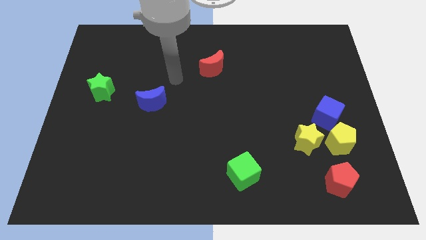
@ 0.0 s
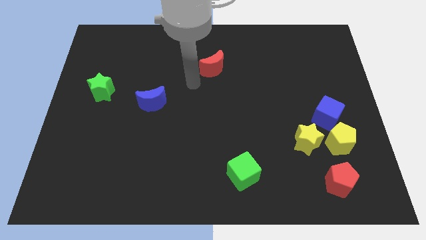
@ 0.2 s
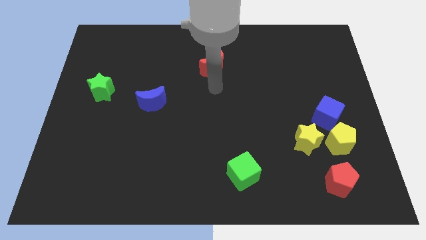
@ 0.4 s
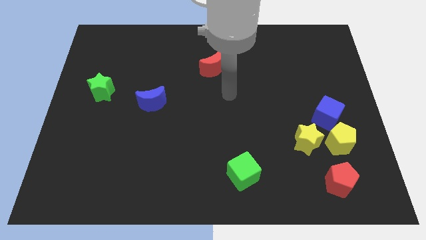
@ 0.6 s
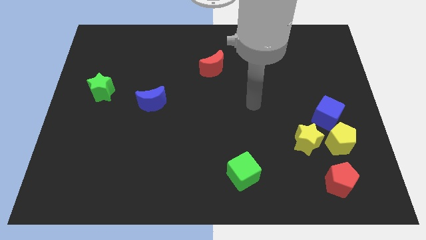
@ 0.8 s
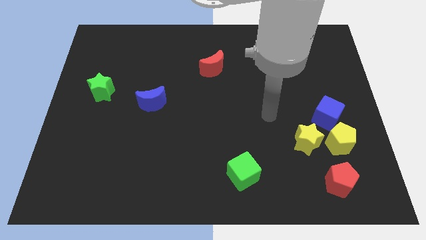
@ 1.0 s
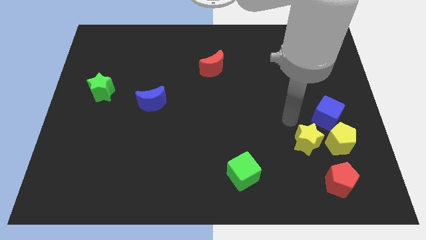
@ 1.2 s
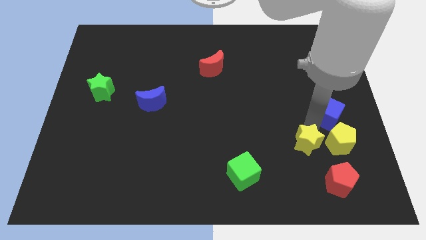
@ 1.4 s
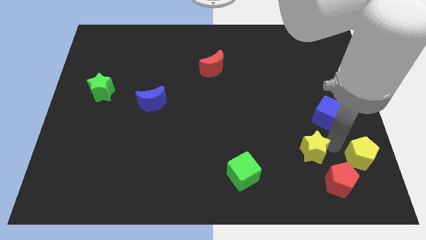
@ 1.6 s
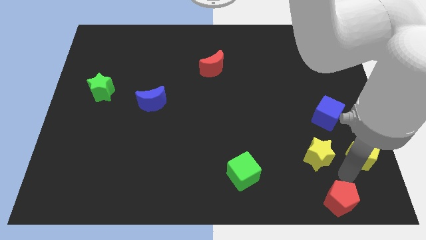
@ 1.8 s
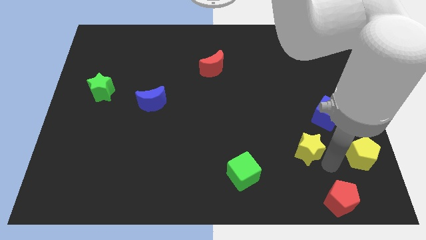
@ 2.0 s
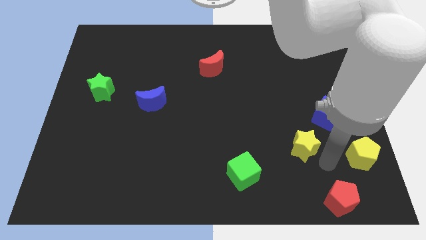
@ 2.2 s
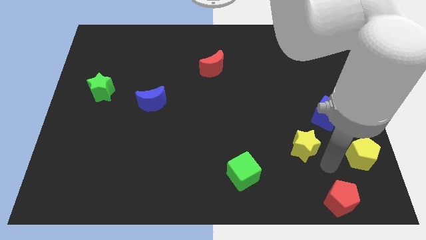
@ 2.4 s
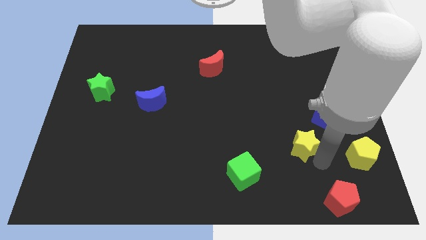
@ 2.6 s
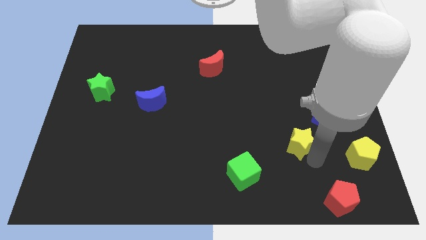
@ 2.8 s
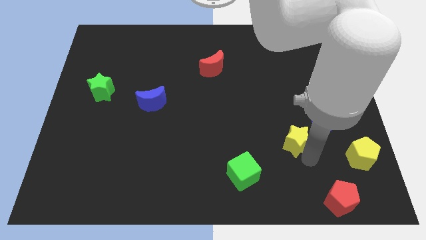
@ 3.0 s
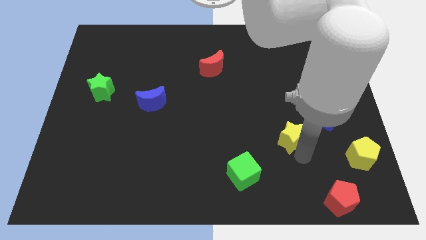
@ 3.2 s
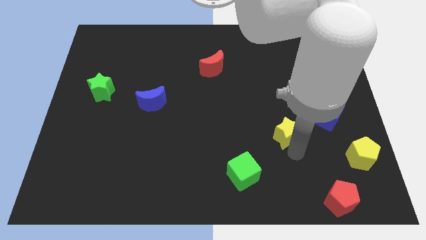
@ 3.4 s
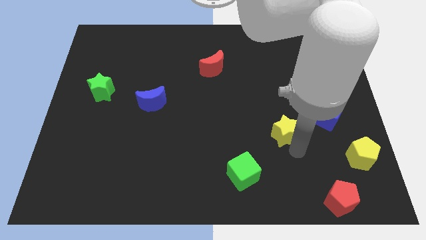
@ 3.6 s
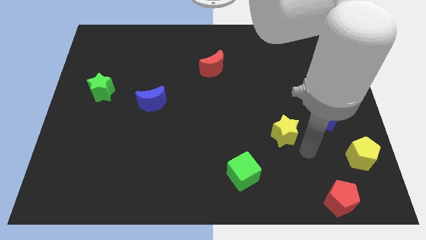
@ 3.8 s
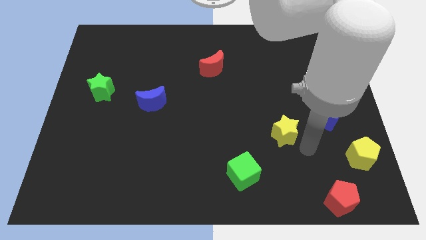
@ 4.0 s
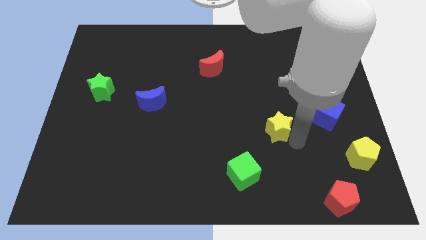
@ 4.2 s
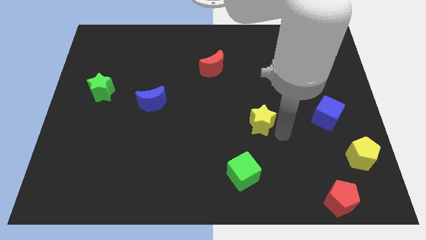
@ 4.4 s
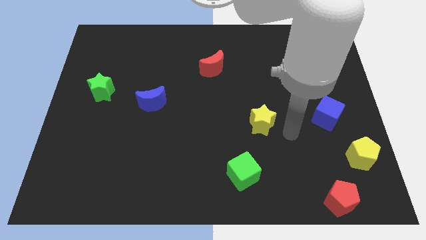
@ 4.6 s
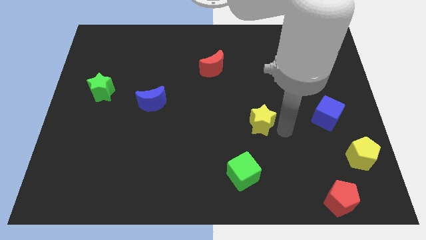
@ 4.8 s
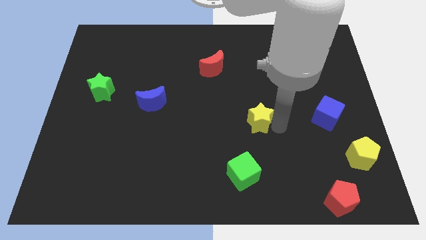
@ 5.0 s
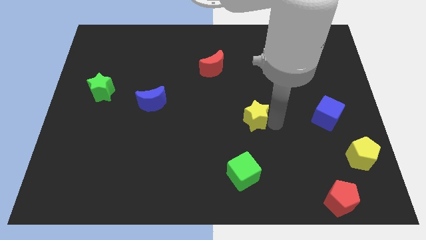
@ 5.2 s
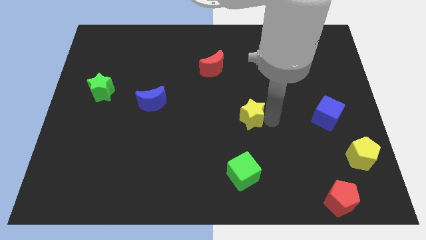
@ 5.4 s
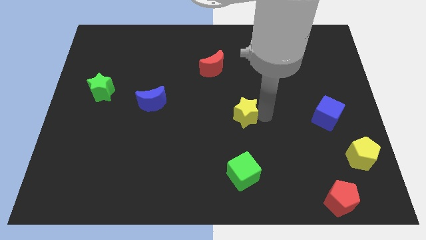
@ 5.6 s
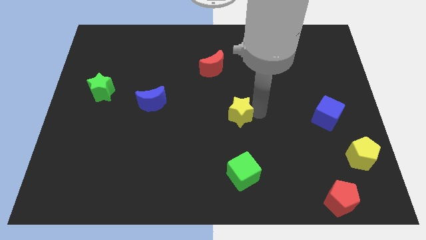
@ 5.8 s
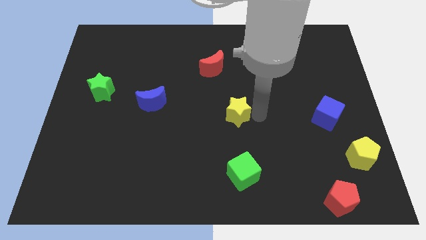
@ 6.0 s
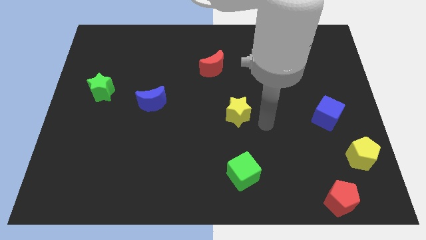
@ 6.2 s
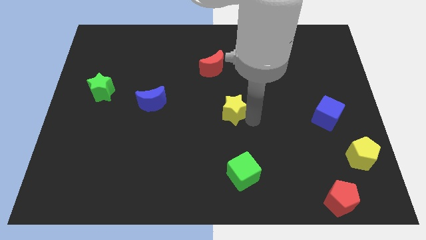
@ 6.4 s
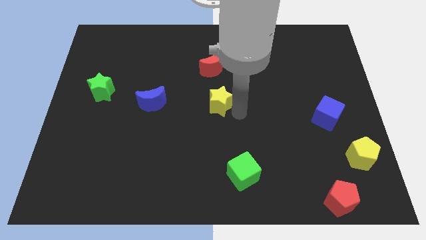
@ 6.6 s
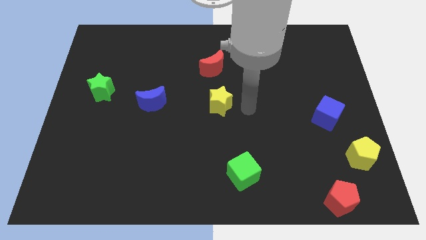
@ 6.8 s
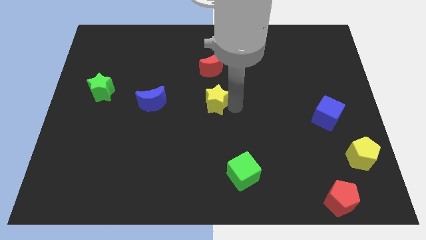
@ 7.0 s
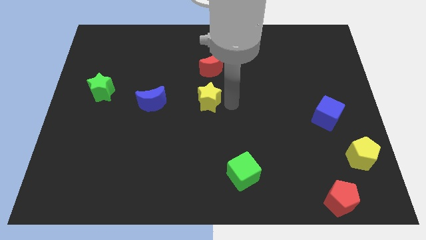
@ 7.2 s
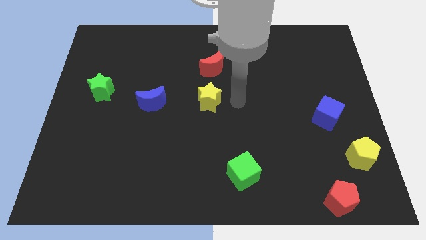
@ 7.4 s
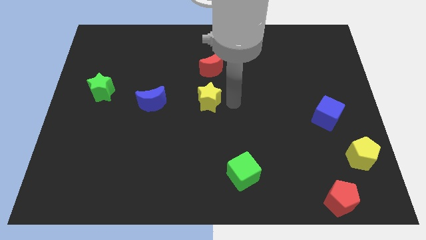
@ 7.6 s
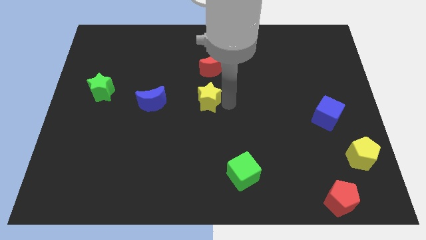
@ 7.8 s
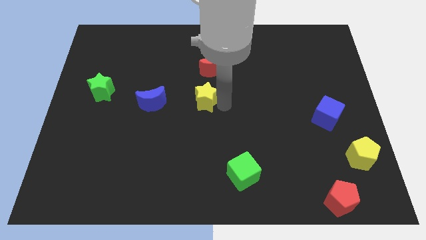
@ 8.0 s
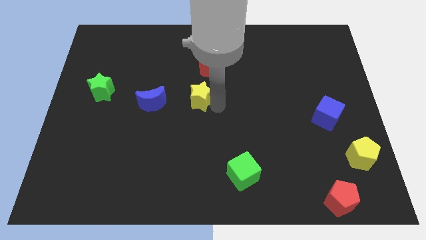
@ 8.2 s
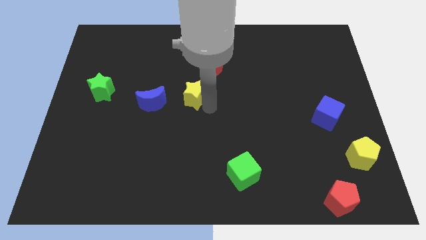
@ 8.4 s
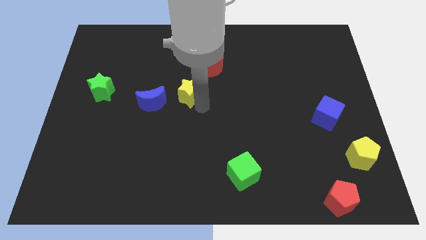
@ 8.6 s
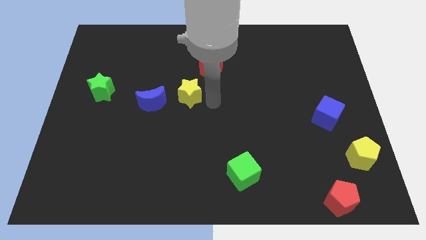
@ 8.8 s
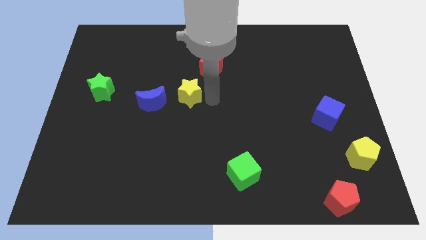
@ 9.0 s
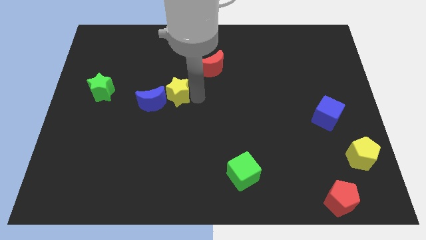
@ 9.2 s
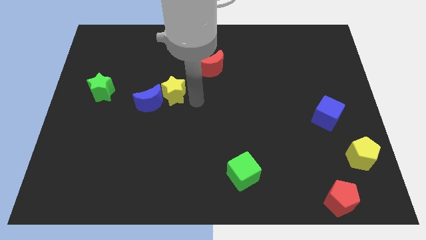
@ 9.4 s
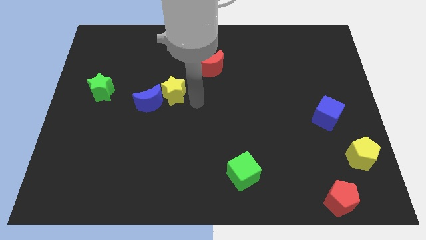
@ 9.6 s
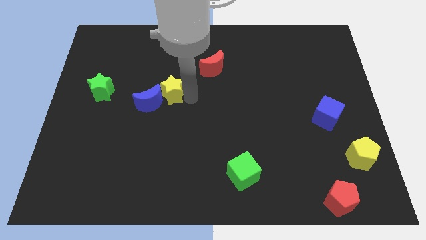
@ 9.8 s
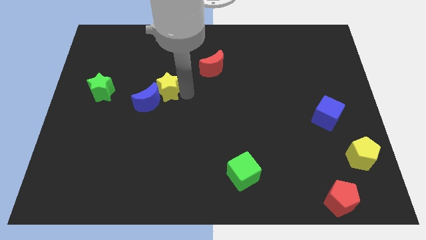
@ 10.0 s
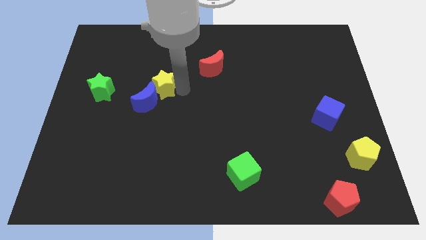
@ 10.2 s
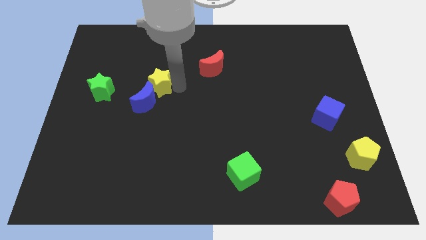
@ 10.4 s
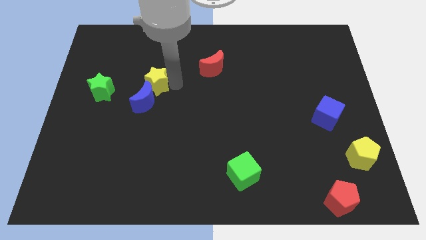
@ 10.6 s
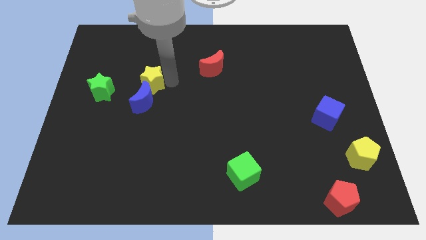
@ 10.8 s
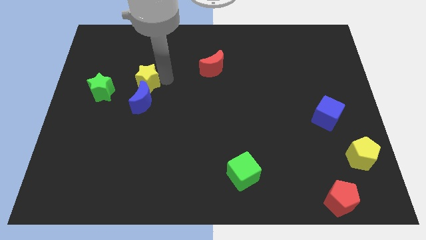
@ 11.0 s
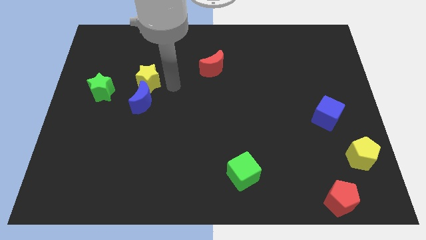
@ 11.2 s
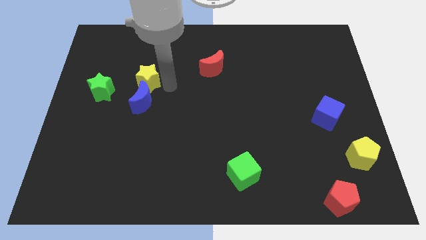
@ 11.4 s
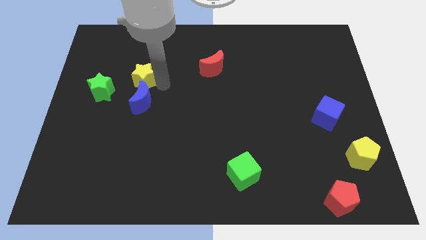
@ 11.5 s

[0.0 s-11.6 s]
push the yellow star to the top right of the green star

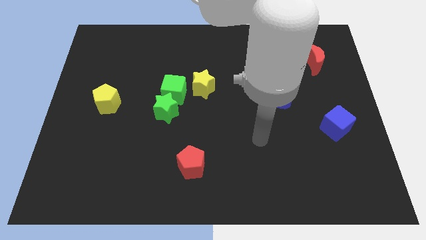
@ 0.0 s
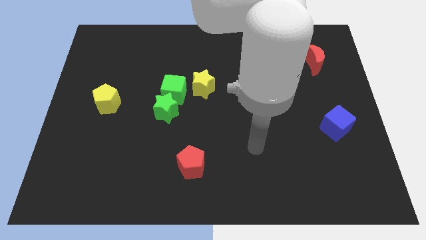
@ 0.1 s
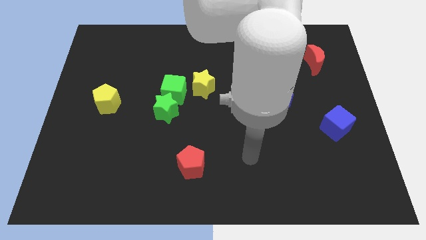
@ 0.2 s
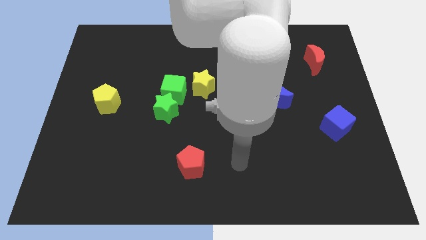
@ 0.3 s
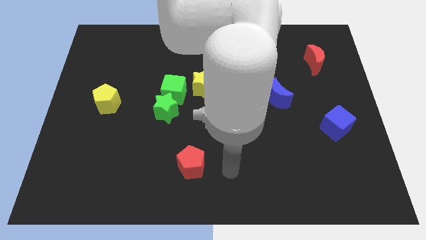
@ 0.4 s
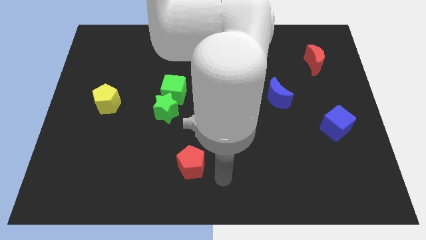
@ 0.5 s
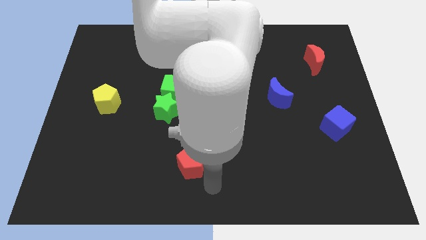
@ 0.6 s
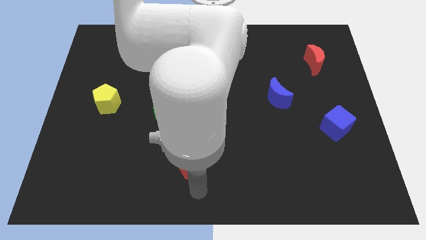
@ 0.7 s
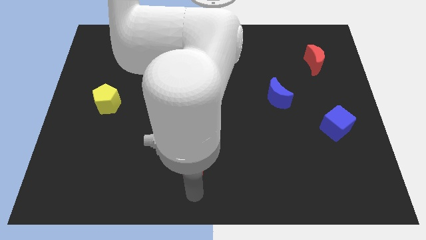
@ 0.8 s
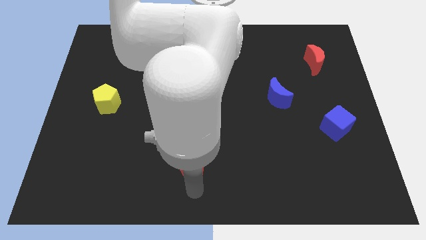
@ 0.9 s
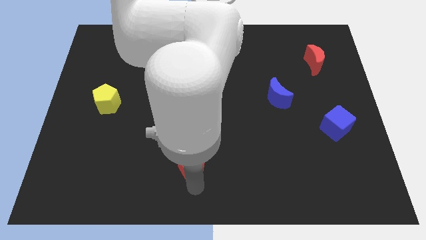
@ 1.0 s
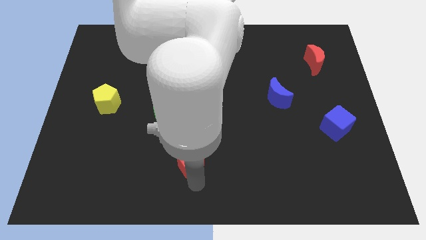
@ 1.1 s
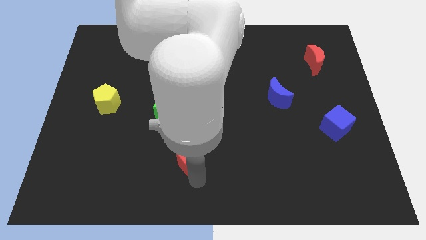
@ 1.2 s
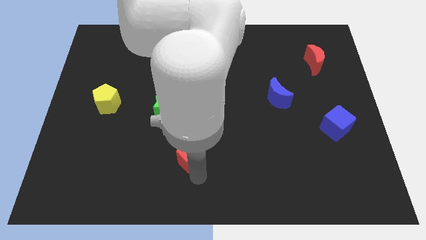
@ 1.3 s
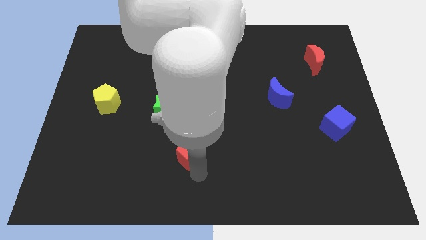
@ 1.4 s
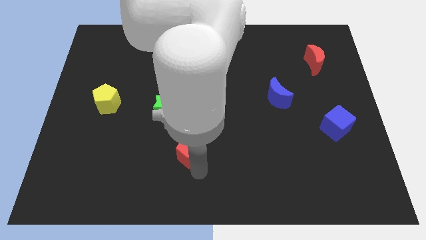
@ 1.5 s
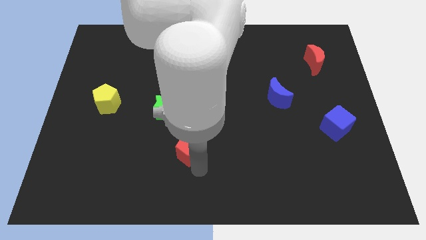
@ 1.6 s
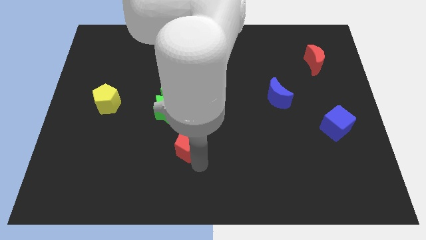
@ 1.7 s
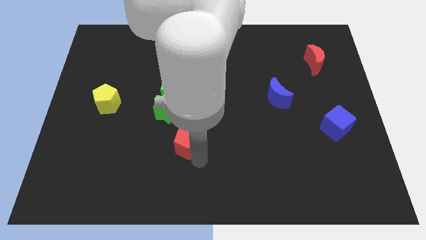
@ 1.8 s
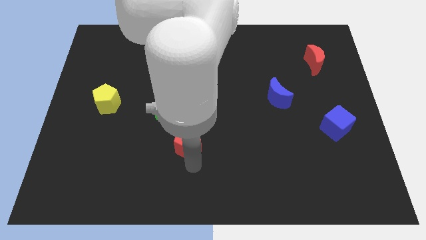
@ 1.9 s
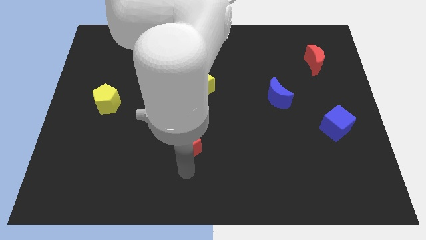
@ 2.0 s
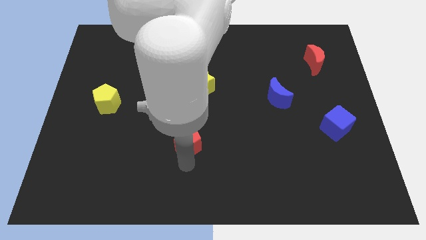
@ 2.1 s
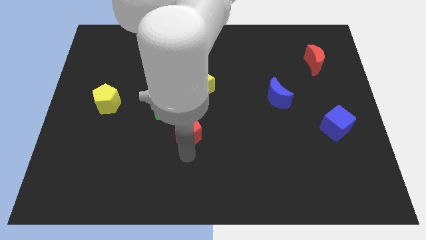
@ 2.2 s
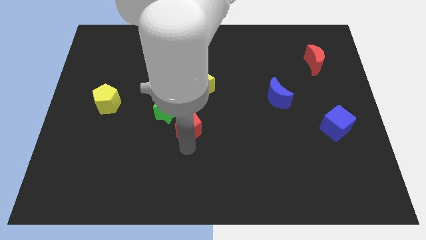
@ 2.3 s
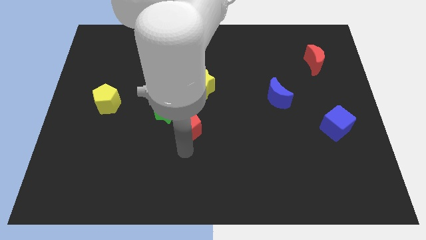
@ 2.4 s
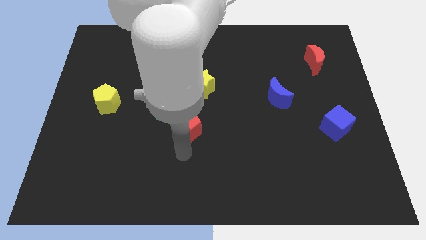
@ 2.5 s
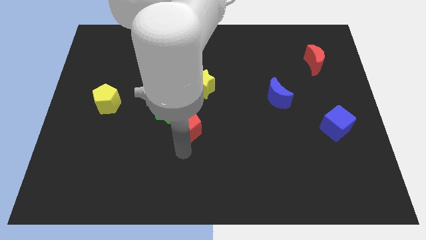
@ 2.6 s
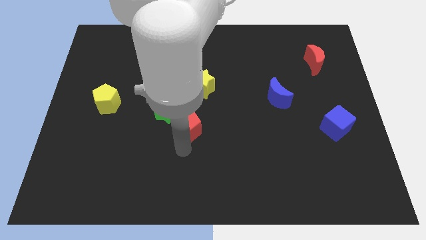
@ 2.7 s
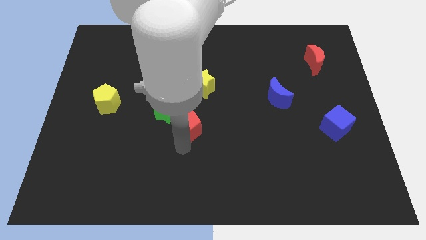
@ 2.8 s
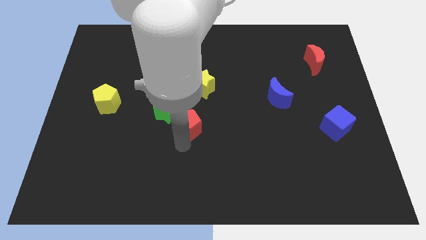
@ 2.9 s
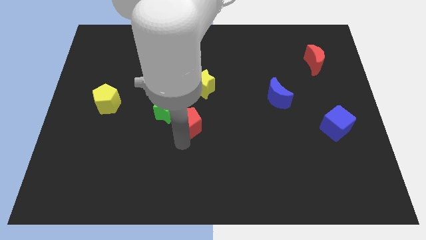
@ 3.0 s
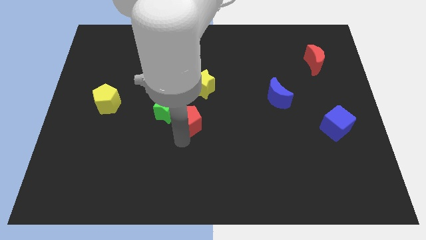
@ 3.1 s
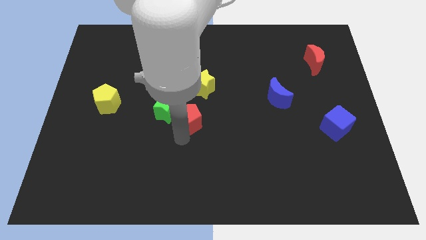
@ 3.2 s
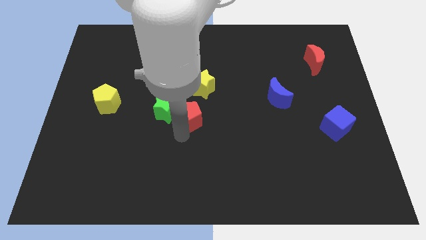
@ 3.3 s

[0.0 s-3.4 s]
push the red pentagon to the bottom left of the yellow star
